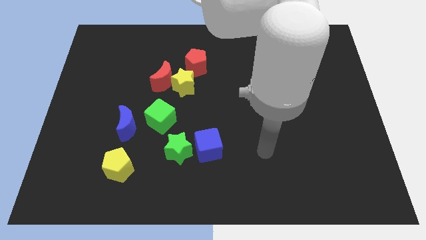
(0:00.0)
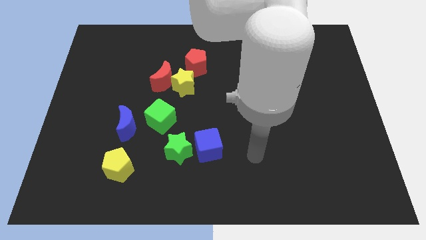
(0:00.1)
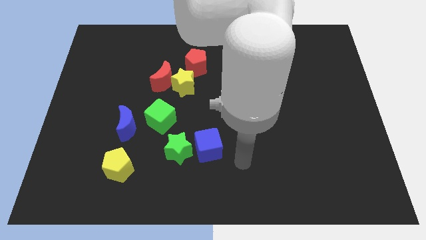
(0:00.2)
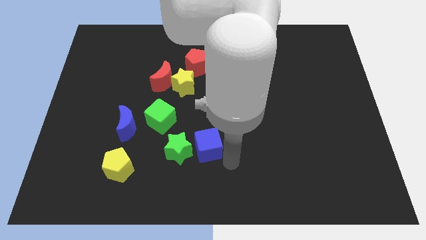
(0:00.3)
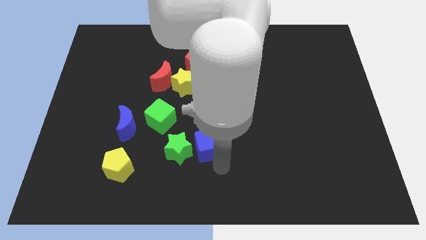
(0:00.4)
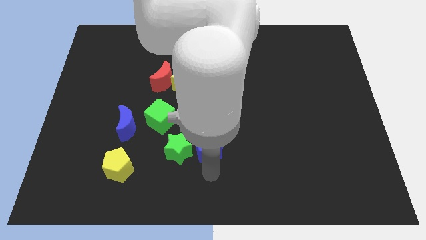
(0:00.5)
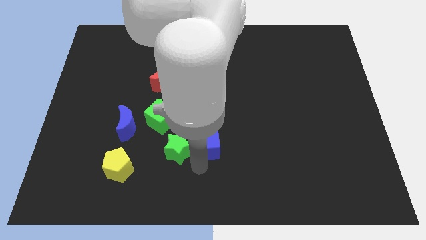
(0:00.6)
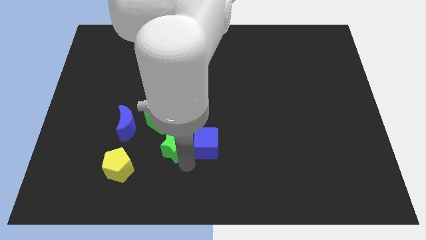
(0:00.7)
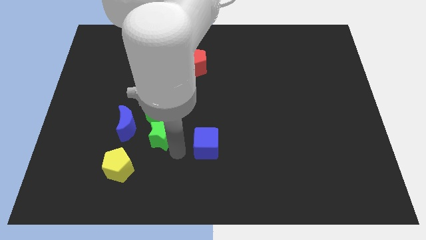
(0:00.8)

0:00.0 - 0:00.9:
pull the blue cube apart from the green star

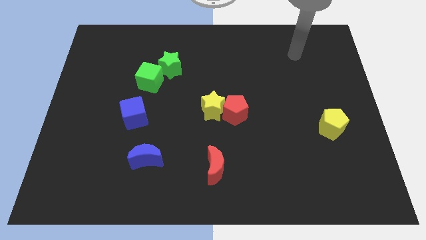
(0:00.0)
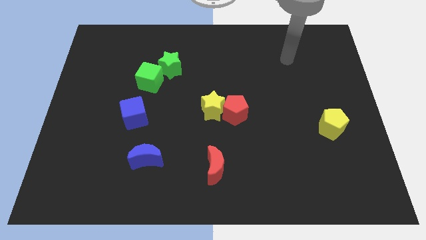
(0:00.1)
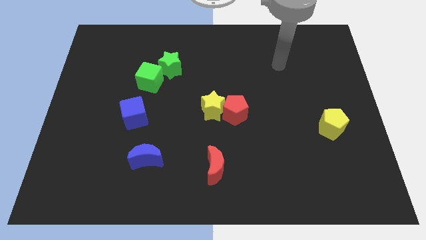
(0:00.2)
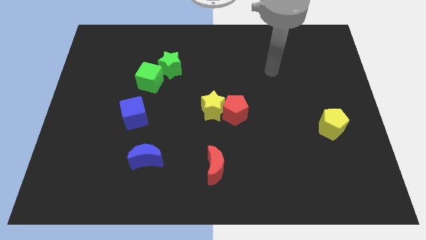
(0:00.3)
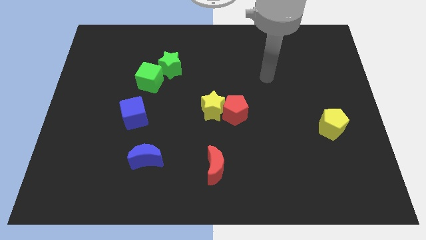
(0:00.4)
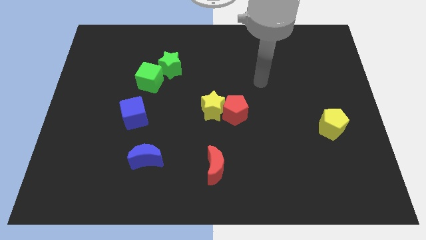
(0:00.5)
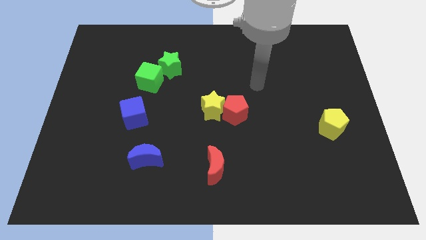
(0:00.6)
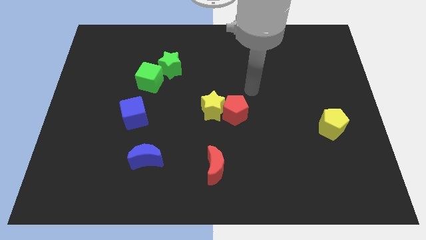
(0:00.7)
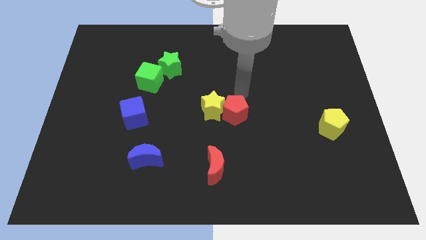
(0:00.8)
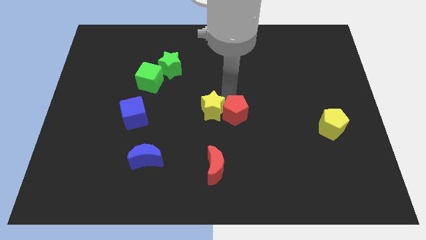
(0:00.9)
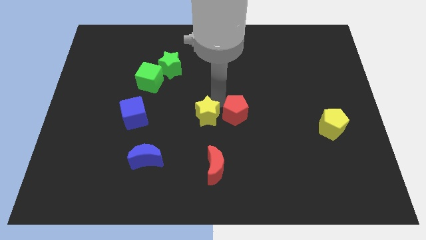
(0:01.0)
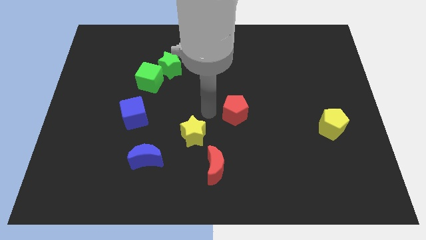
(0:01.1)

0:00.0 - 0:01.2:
move the red pentagon away from the yellow star

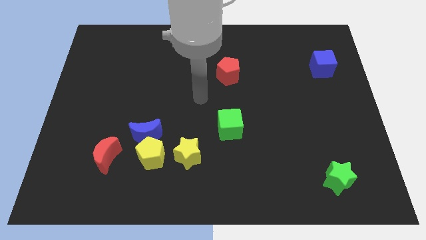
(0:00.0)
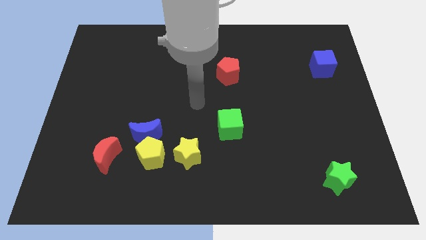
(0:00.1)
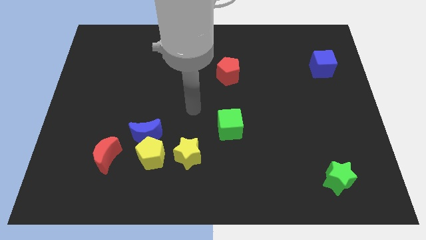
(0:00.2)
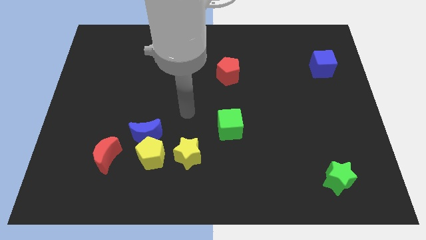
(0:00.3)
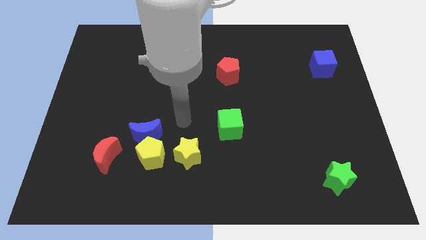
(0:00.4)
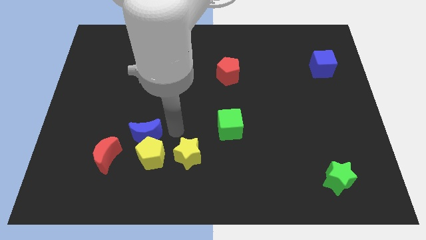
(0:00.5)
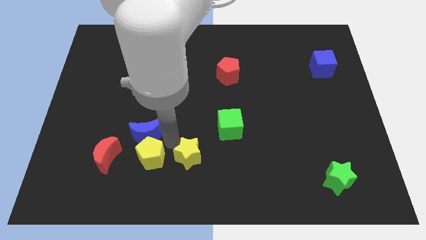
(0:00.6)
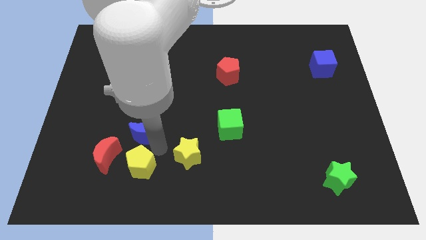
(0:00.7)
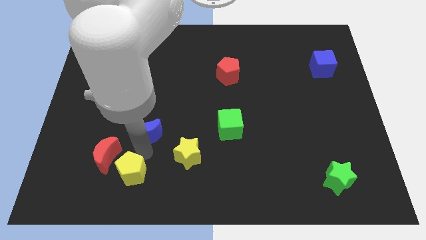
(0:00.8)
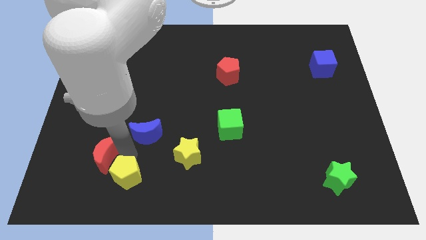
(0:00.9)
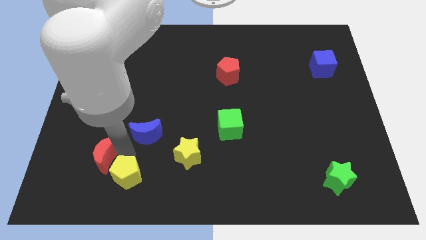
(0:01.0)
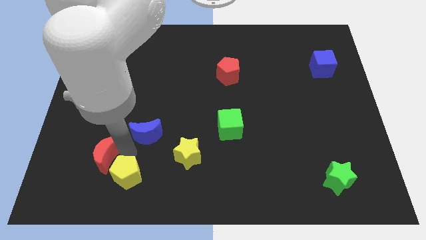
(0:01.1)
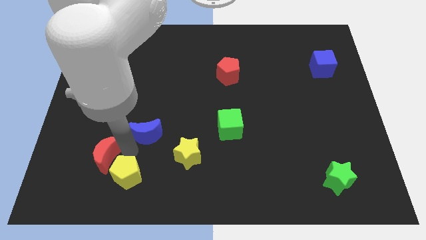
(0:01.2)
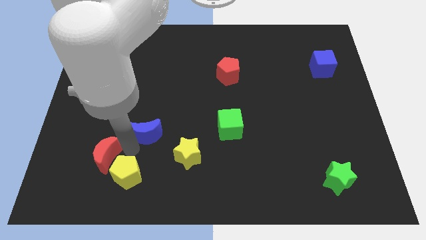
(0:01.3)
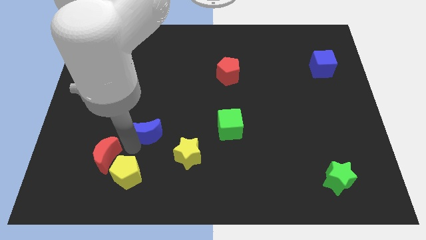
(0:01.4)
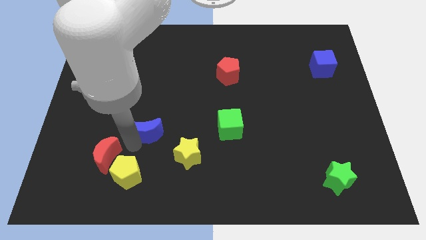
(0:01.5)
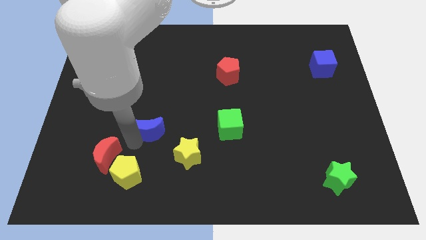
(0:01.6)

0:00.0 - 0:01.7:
move the blue moon away from the yellow pentagon and red moon

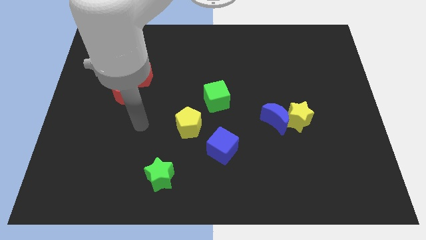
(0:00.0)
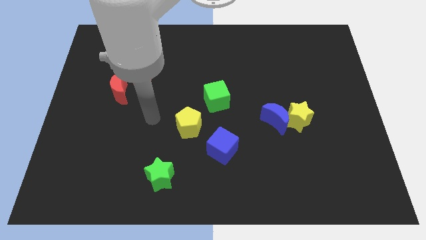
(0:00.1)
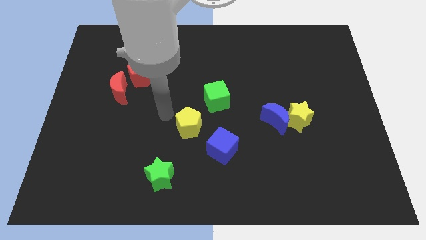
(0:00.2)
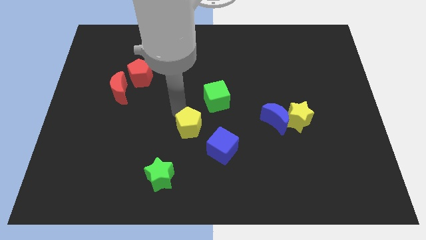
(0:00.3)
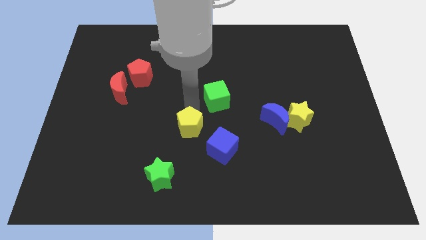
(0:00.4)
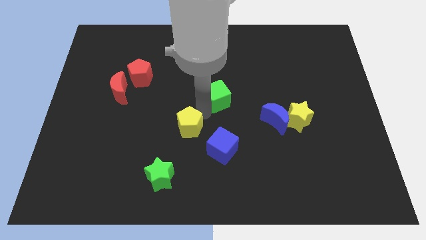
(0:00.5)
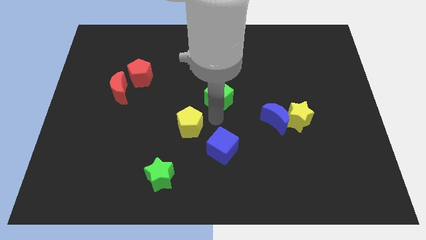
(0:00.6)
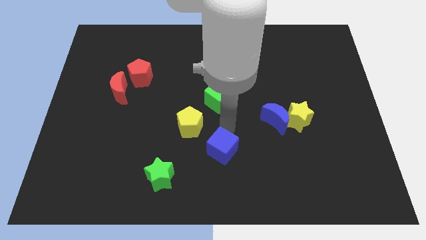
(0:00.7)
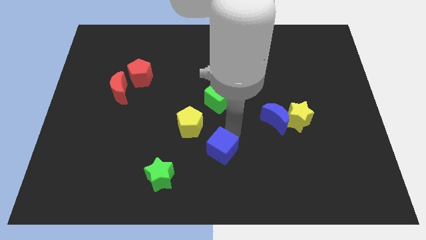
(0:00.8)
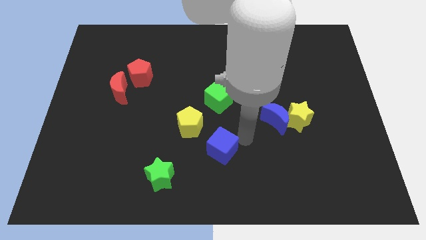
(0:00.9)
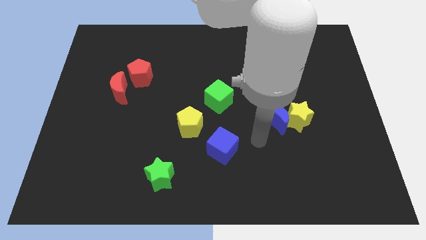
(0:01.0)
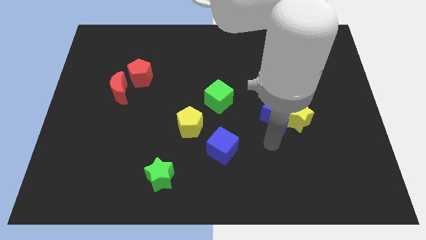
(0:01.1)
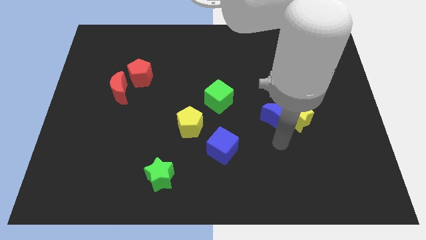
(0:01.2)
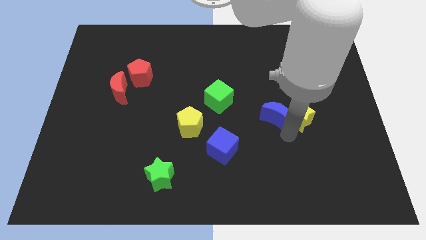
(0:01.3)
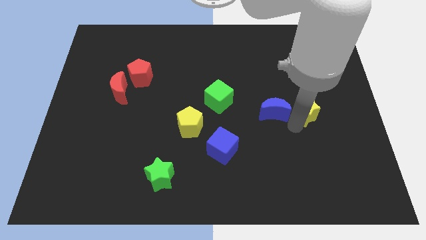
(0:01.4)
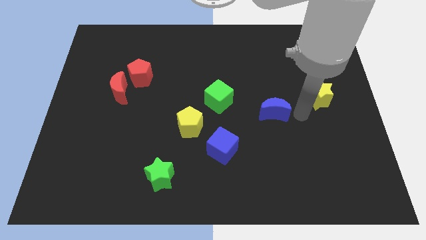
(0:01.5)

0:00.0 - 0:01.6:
separate the blue moon from the yellow star

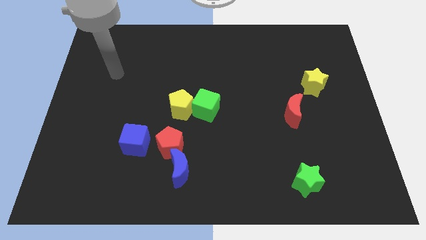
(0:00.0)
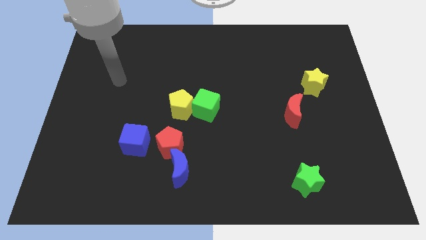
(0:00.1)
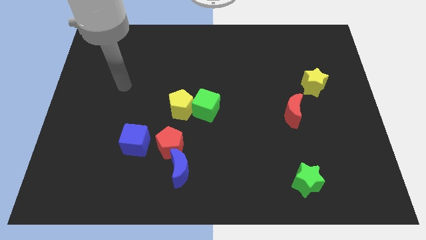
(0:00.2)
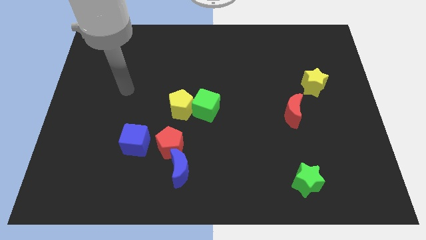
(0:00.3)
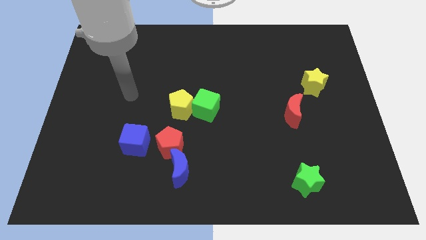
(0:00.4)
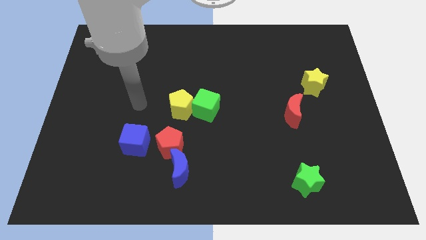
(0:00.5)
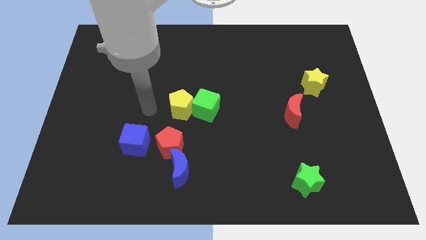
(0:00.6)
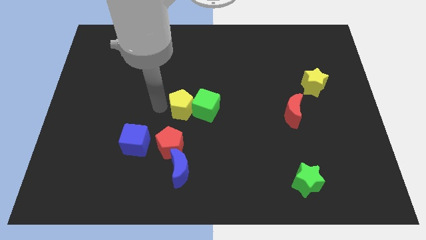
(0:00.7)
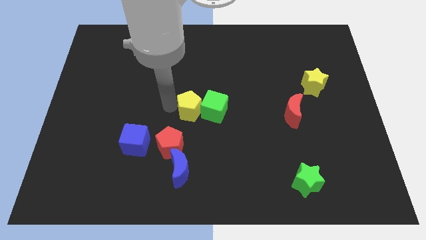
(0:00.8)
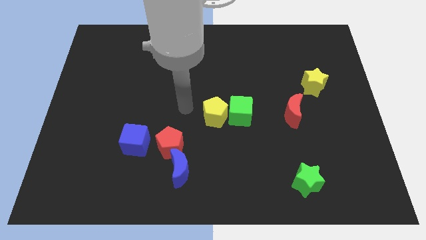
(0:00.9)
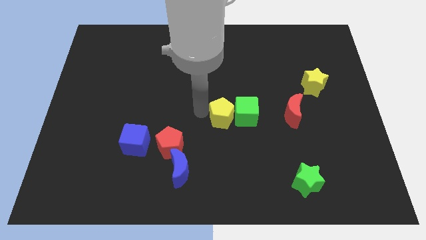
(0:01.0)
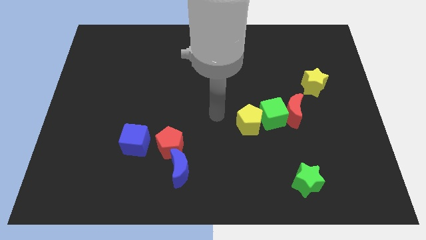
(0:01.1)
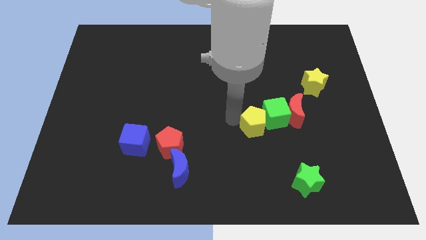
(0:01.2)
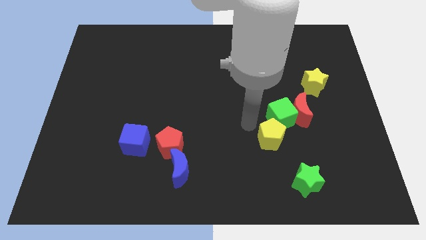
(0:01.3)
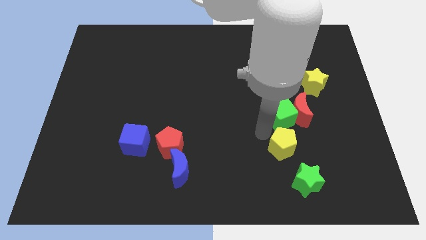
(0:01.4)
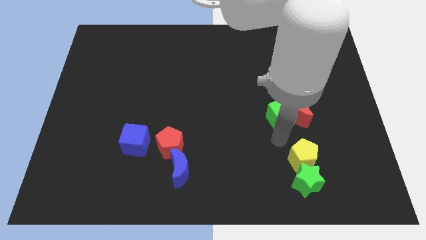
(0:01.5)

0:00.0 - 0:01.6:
move the green cube away from the yellow pentagon

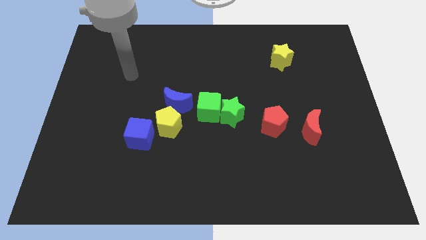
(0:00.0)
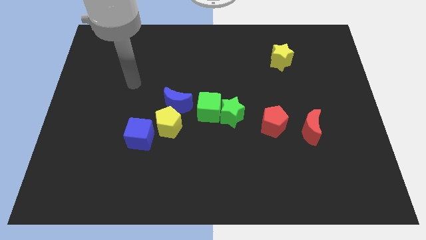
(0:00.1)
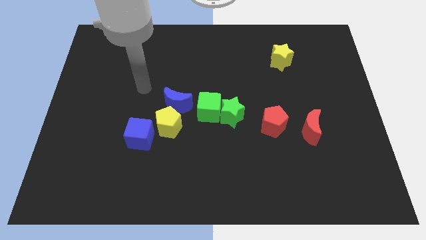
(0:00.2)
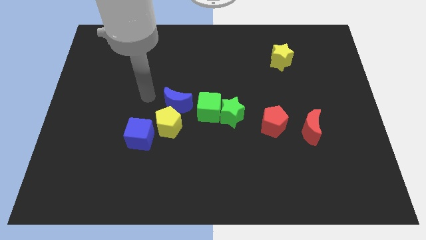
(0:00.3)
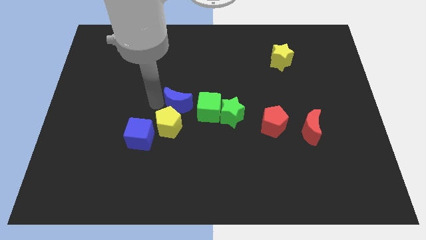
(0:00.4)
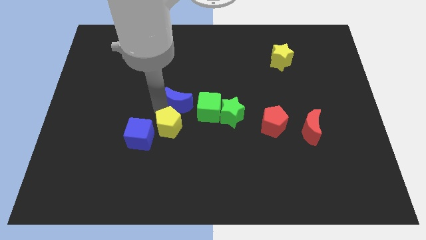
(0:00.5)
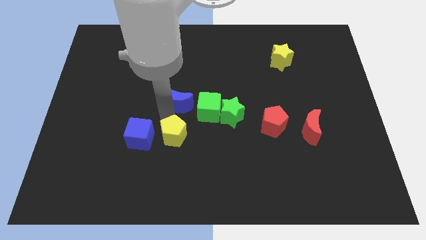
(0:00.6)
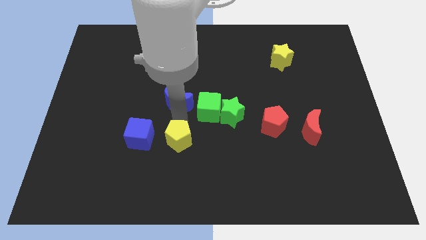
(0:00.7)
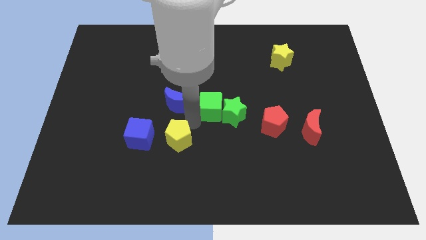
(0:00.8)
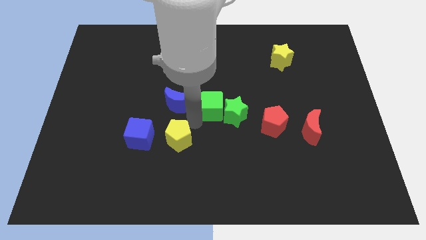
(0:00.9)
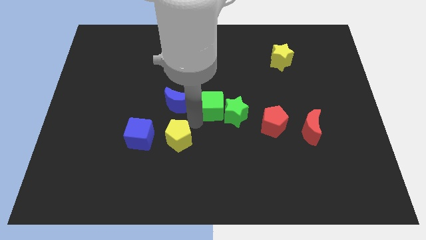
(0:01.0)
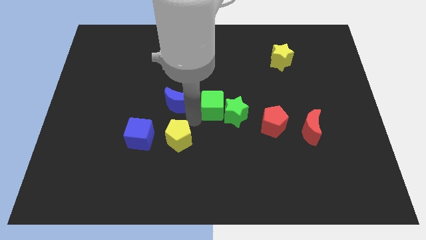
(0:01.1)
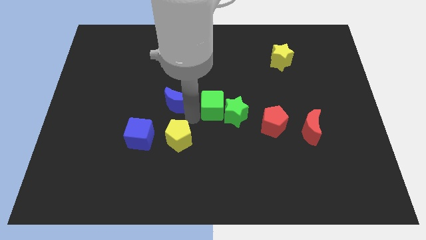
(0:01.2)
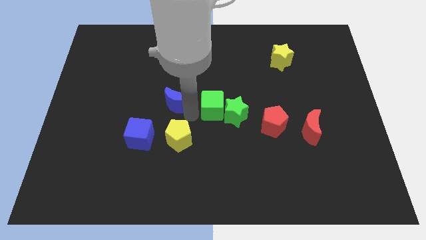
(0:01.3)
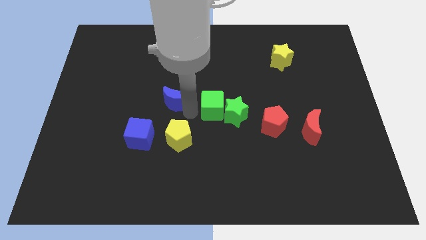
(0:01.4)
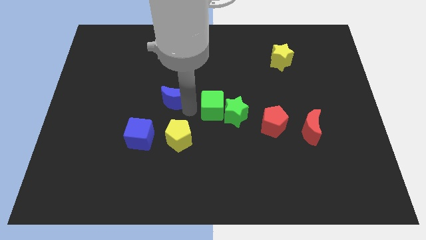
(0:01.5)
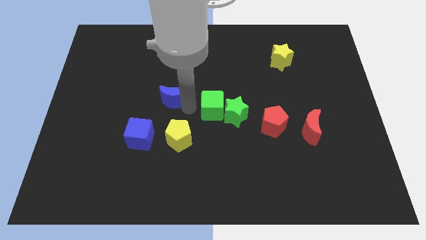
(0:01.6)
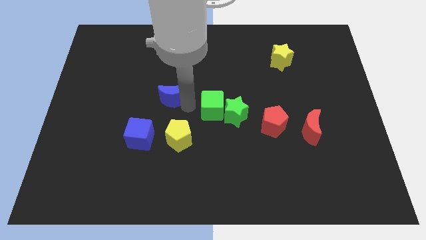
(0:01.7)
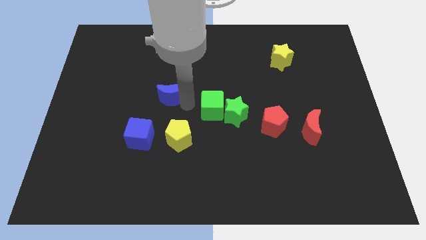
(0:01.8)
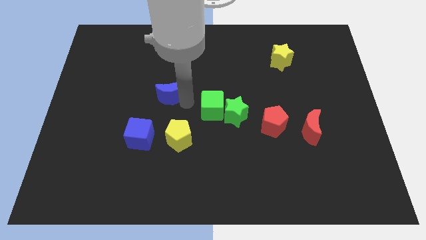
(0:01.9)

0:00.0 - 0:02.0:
pull the blue moon apart from the yellow pentagon and green cube

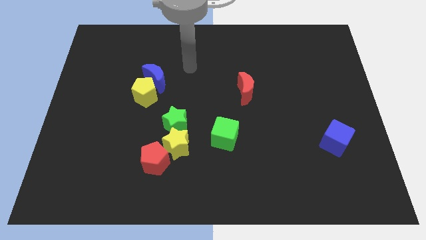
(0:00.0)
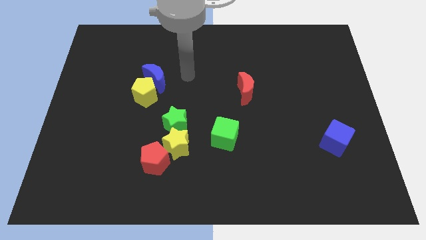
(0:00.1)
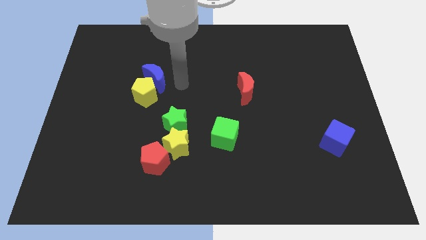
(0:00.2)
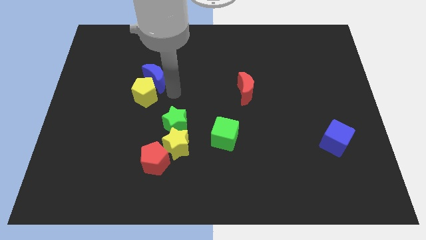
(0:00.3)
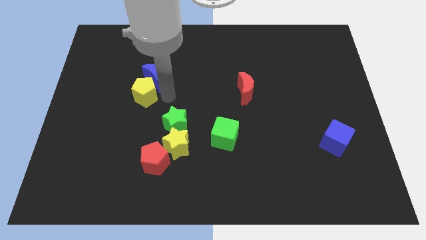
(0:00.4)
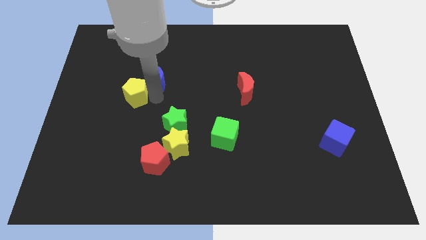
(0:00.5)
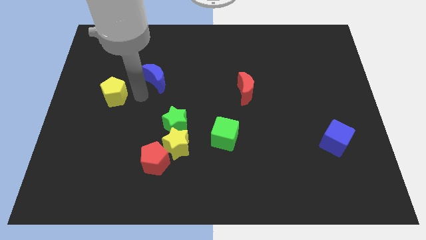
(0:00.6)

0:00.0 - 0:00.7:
separate the blue moon from the yellow pentagon
